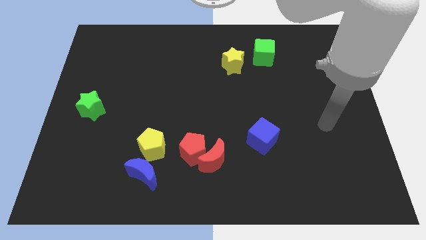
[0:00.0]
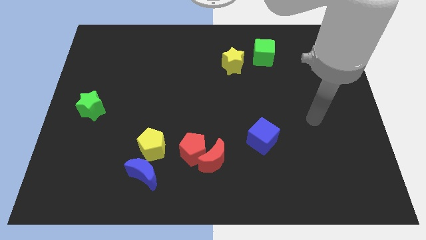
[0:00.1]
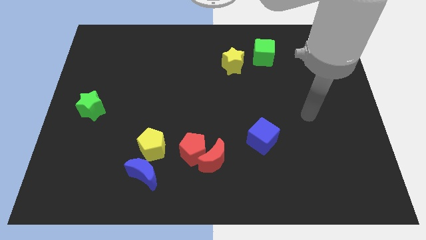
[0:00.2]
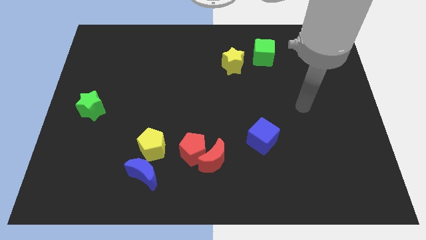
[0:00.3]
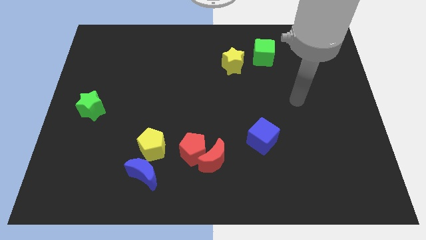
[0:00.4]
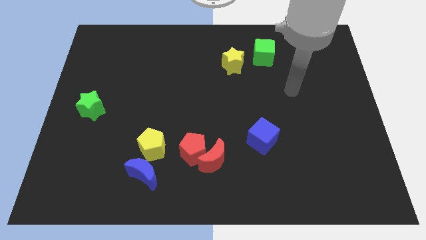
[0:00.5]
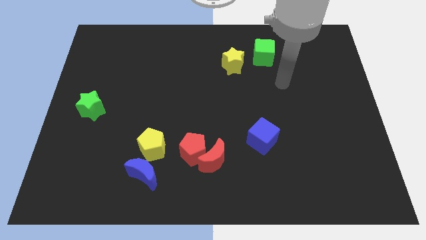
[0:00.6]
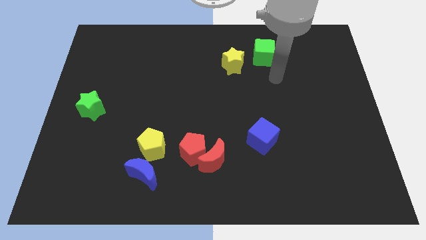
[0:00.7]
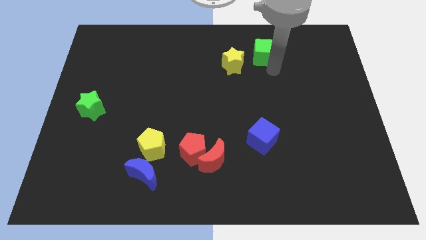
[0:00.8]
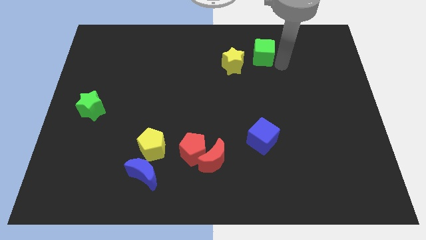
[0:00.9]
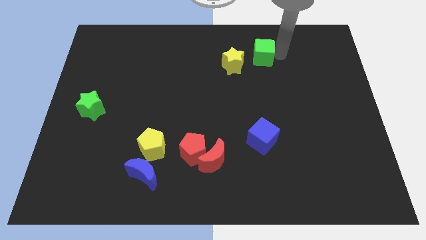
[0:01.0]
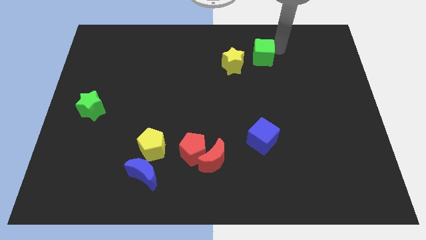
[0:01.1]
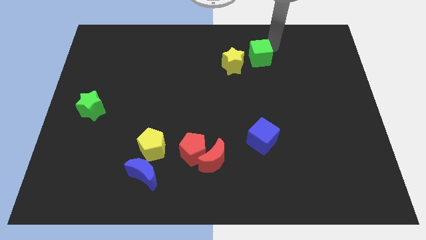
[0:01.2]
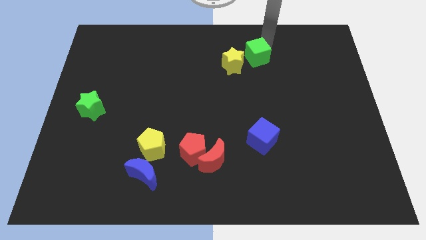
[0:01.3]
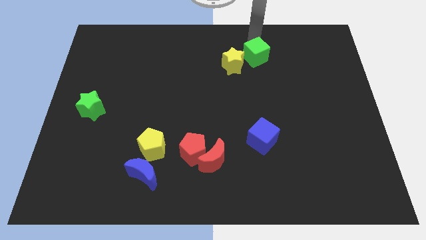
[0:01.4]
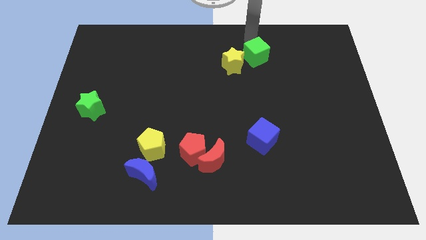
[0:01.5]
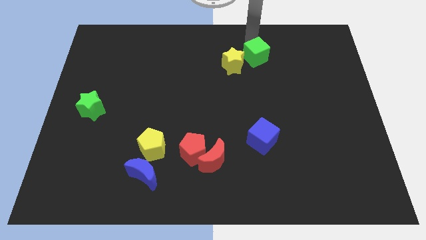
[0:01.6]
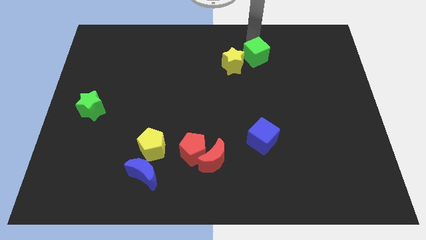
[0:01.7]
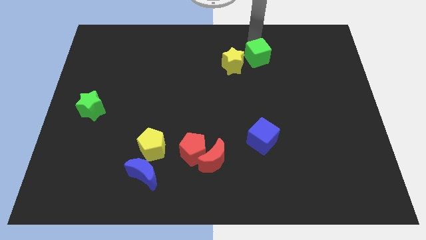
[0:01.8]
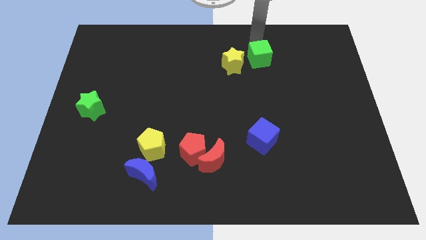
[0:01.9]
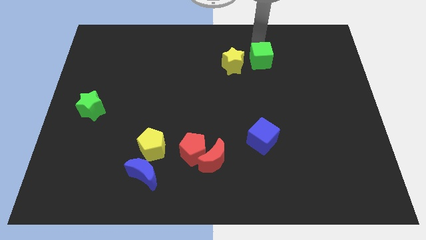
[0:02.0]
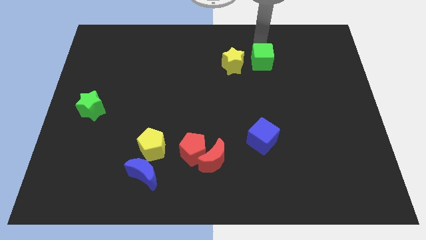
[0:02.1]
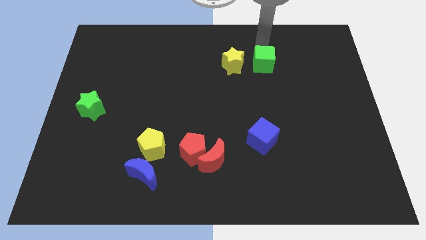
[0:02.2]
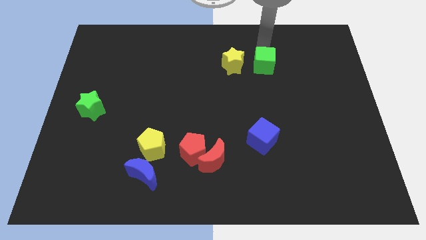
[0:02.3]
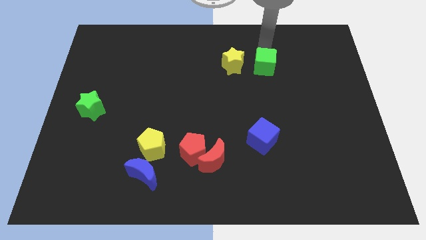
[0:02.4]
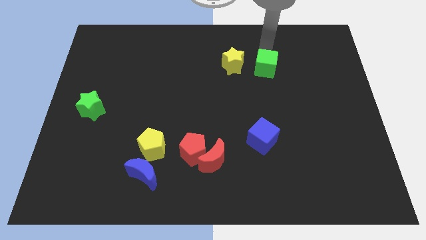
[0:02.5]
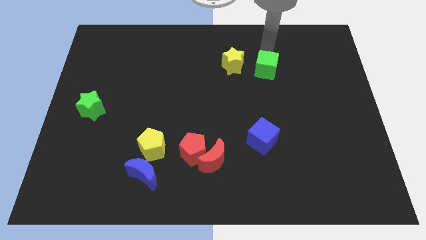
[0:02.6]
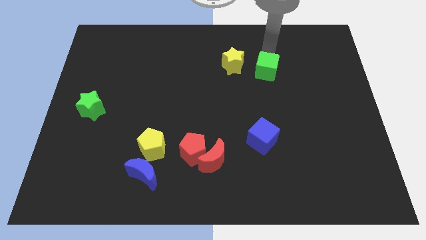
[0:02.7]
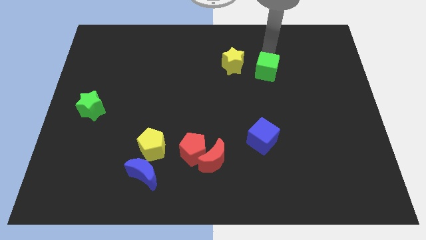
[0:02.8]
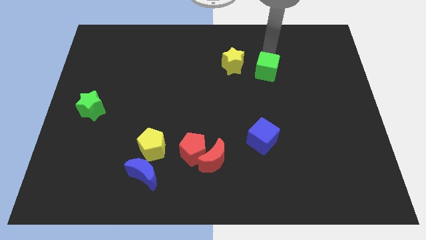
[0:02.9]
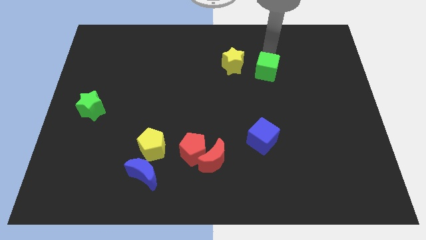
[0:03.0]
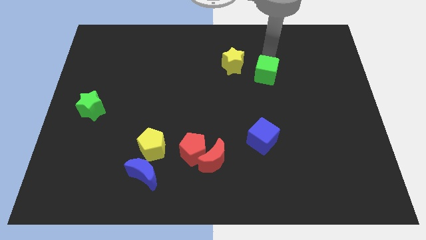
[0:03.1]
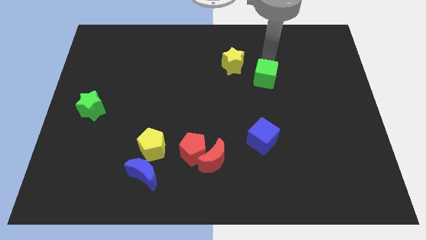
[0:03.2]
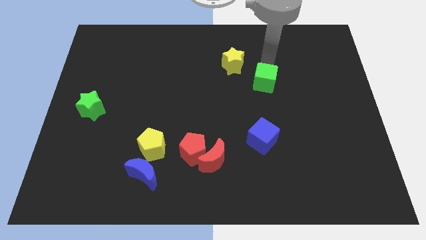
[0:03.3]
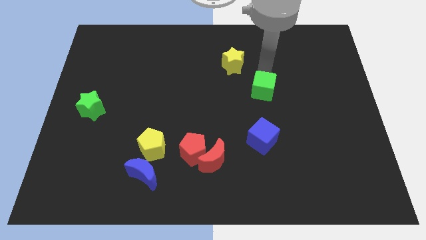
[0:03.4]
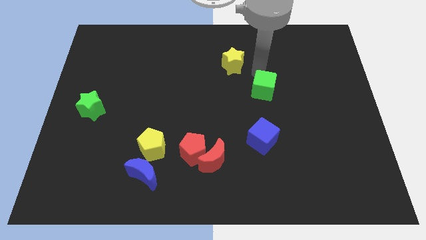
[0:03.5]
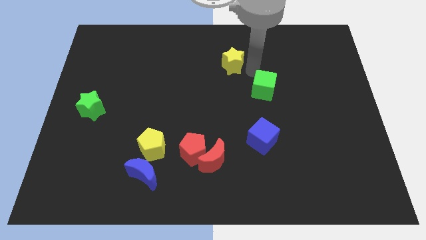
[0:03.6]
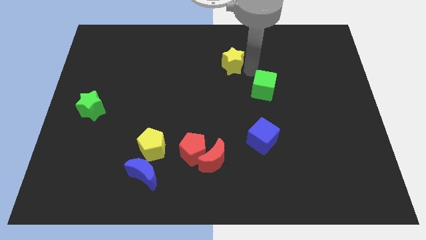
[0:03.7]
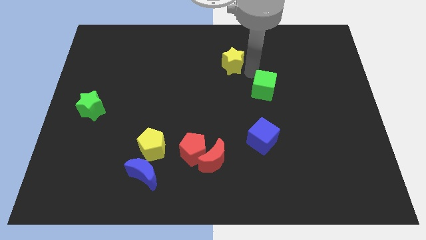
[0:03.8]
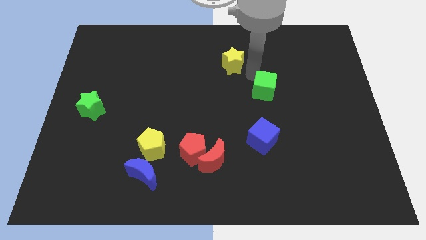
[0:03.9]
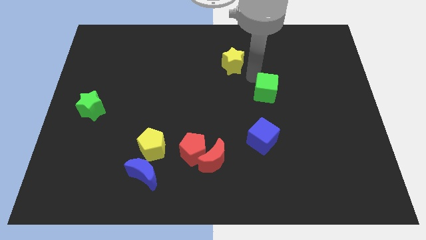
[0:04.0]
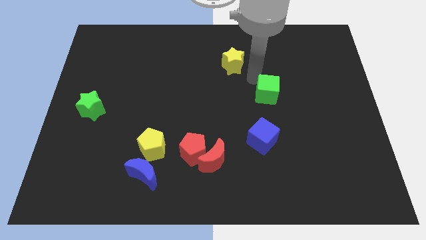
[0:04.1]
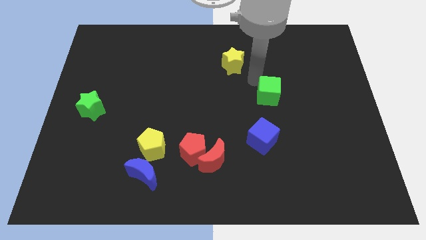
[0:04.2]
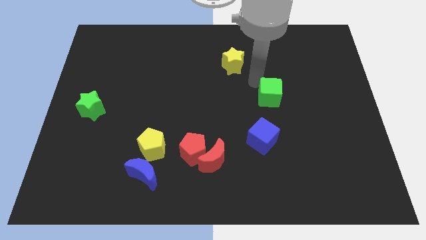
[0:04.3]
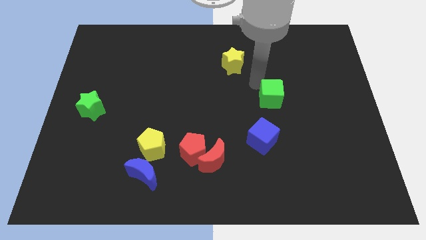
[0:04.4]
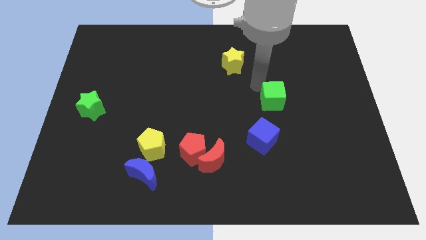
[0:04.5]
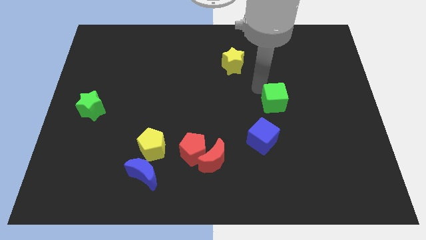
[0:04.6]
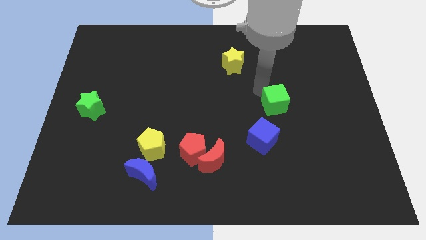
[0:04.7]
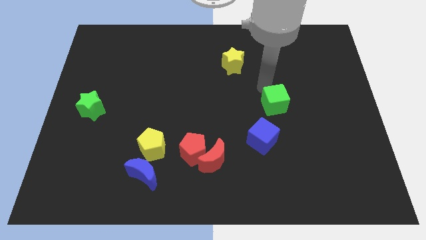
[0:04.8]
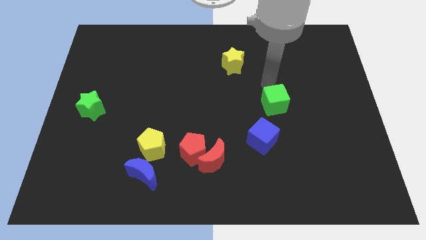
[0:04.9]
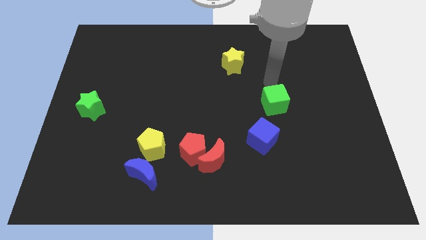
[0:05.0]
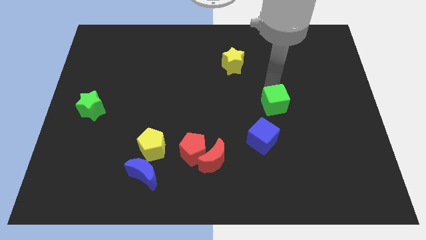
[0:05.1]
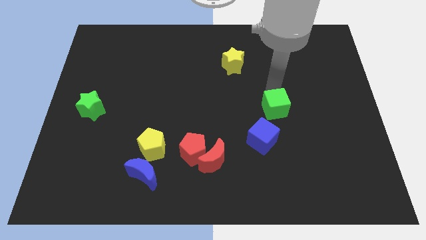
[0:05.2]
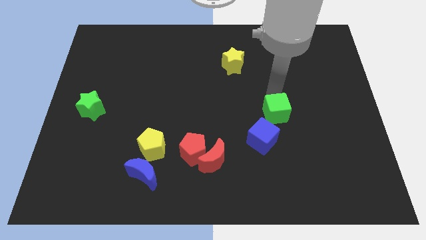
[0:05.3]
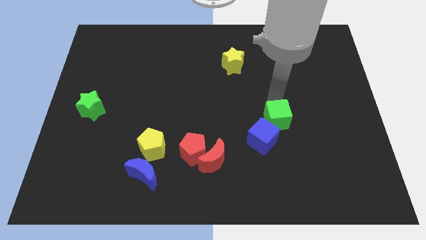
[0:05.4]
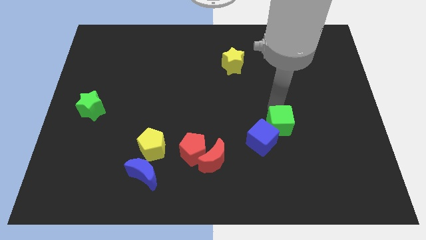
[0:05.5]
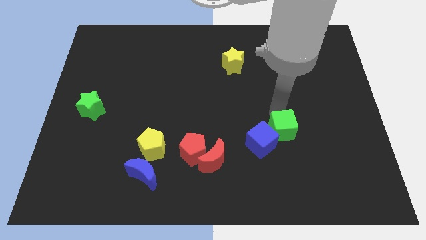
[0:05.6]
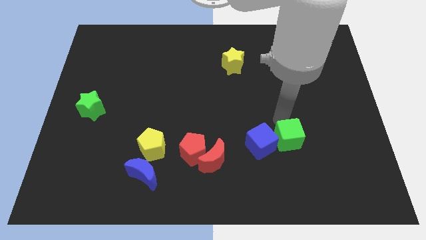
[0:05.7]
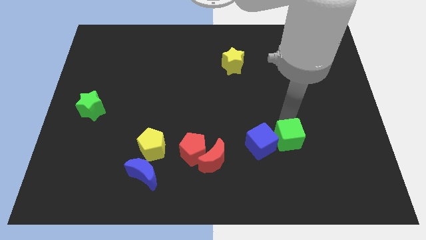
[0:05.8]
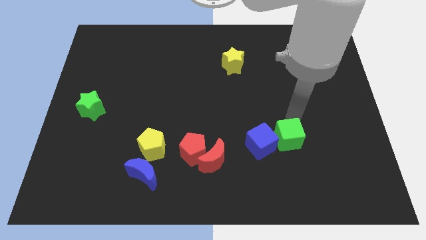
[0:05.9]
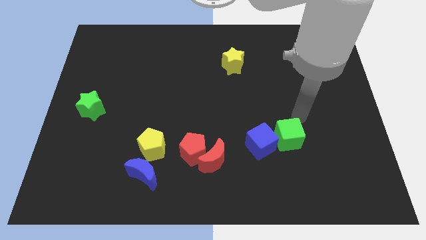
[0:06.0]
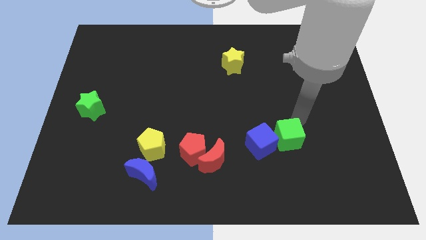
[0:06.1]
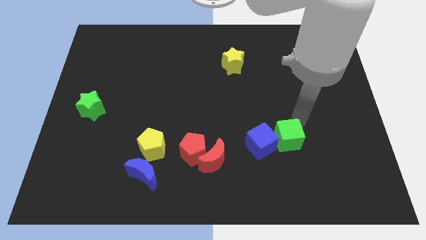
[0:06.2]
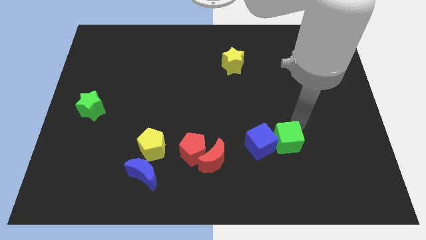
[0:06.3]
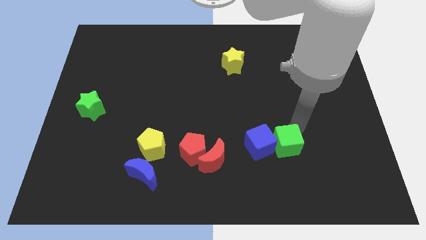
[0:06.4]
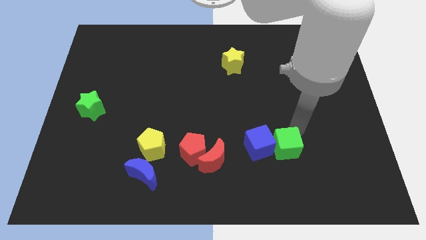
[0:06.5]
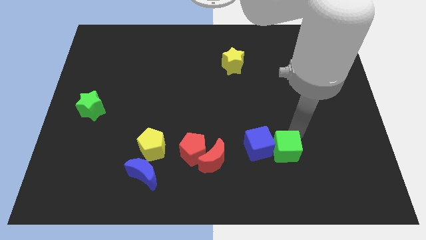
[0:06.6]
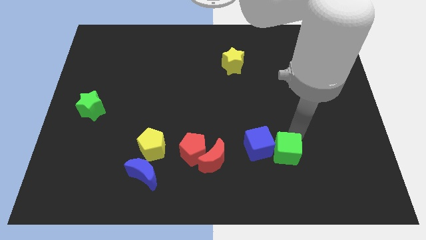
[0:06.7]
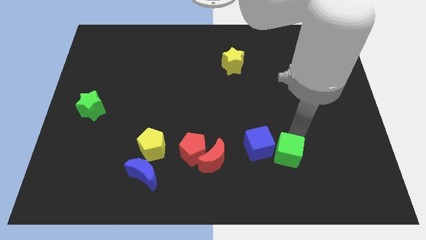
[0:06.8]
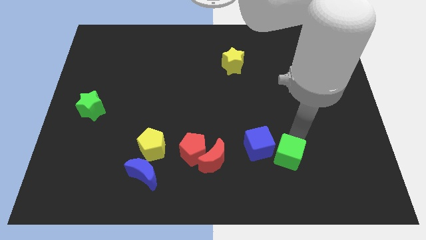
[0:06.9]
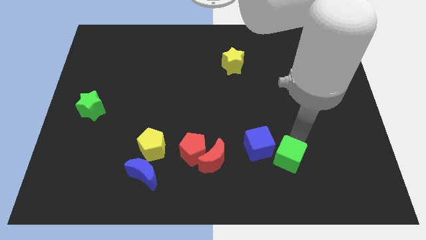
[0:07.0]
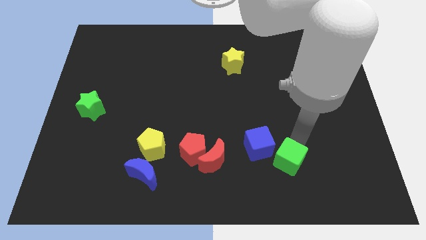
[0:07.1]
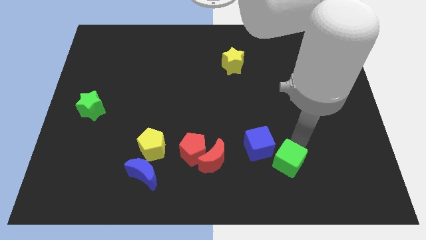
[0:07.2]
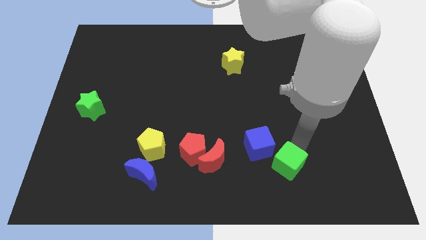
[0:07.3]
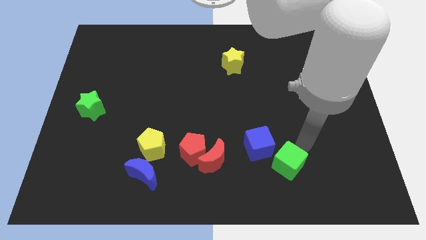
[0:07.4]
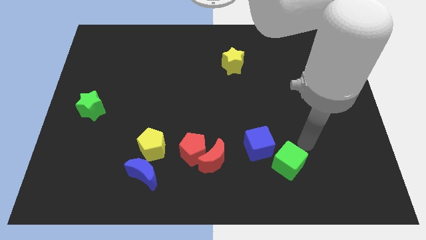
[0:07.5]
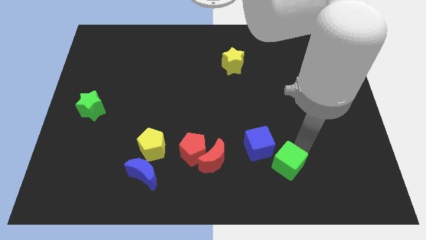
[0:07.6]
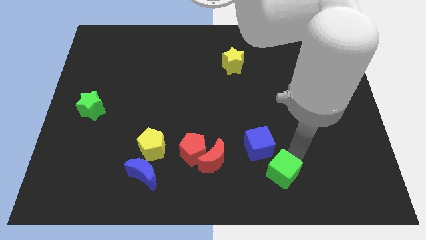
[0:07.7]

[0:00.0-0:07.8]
slide the green cube below the blue cube
